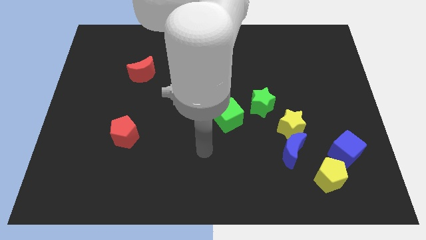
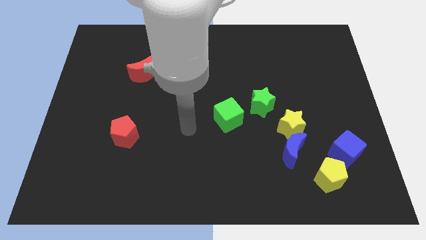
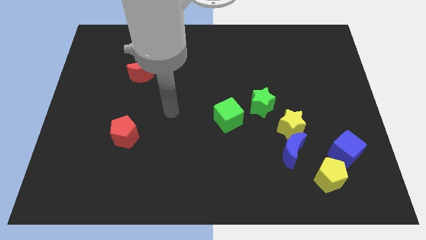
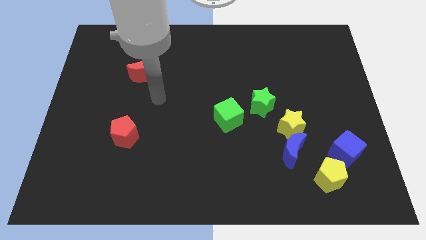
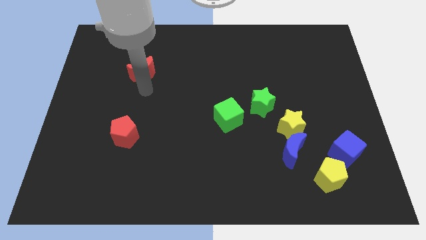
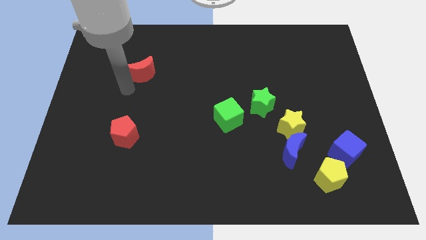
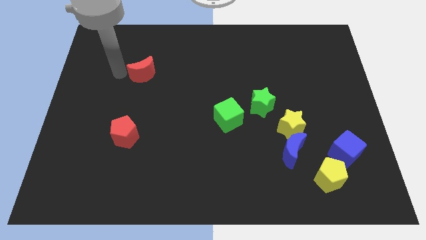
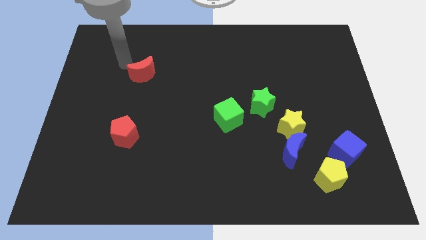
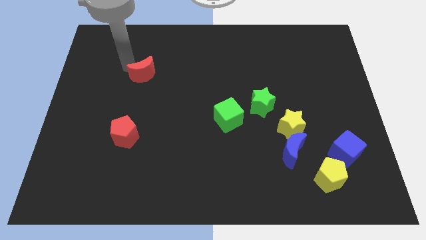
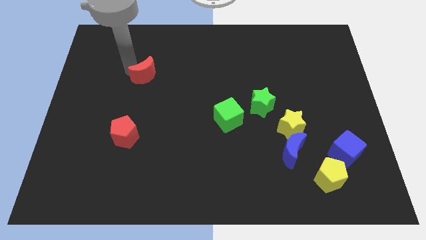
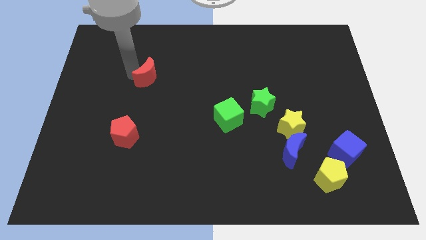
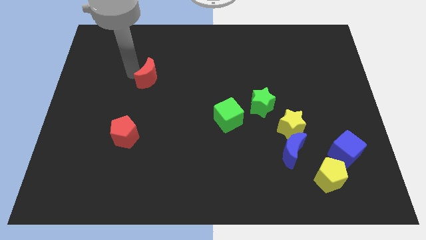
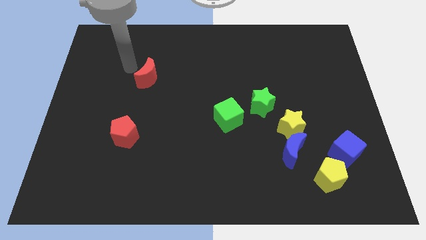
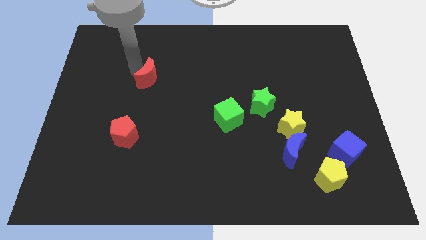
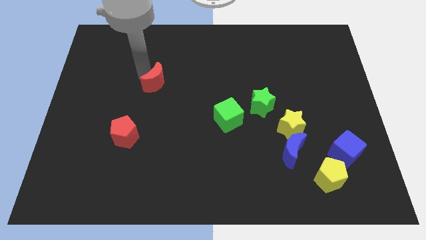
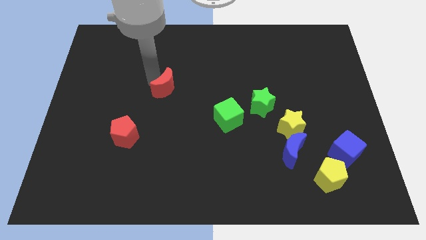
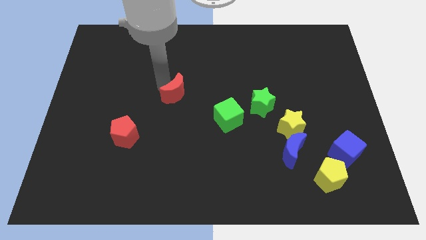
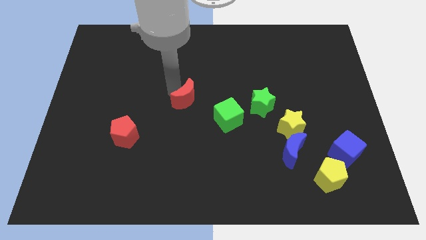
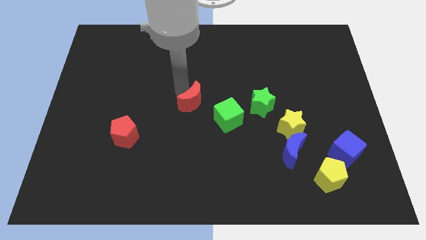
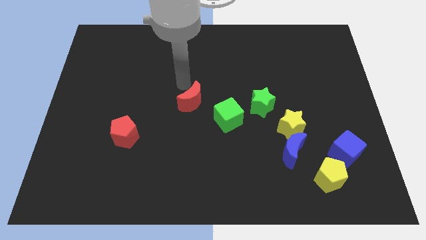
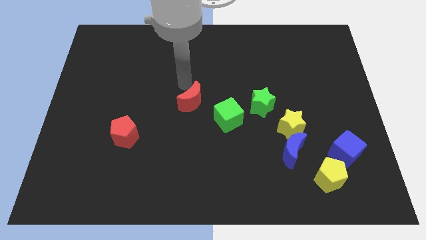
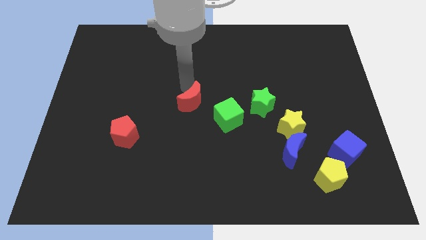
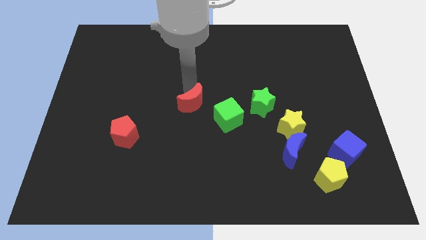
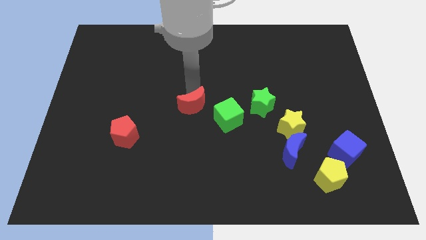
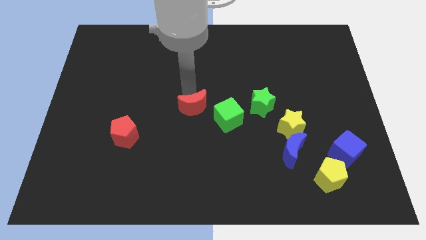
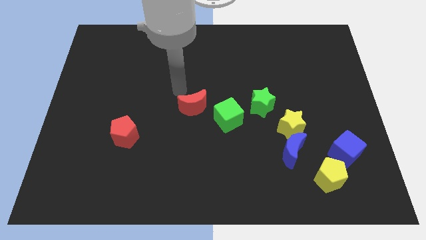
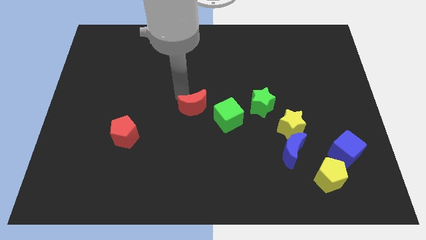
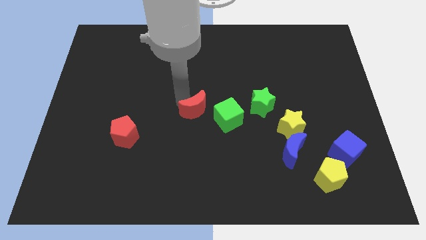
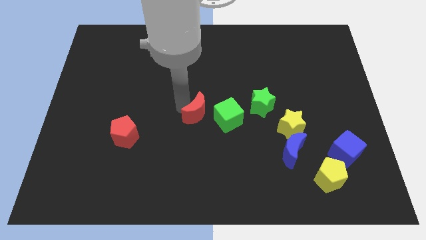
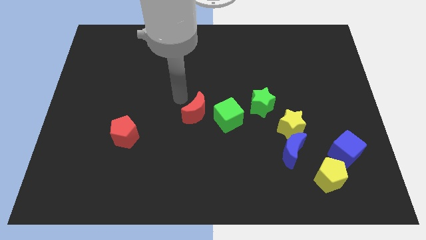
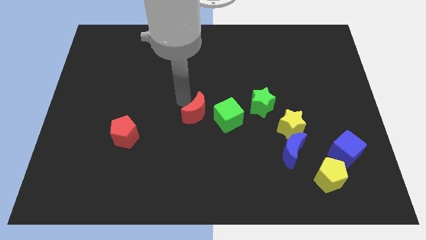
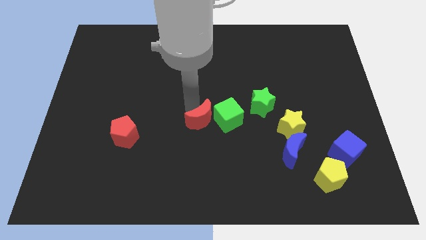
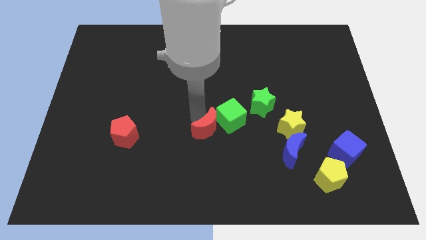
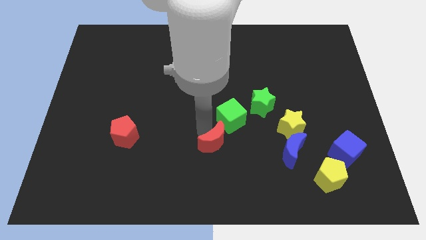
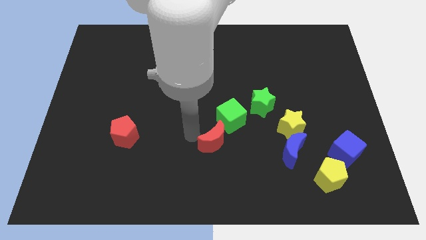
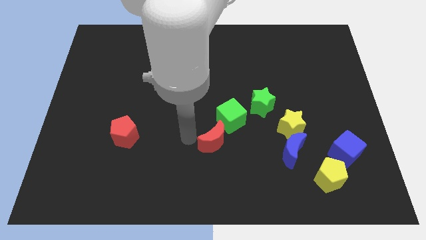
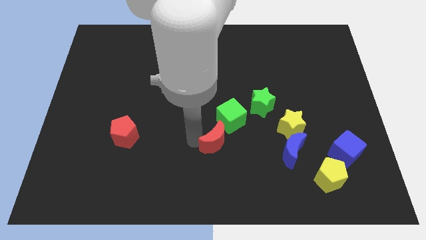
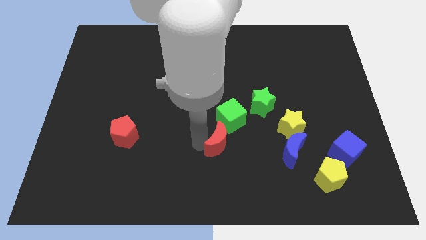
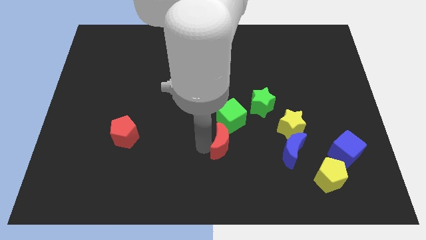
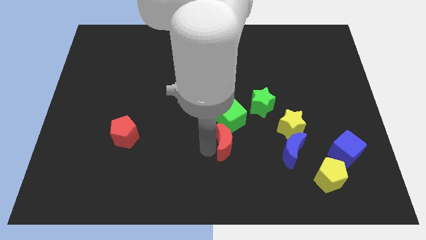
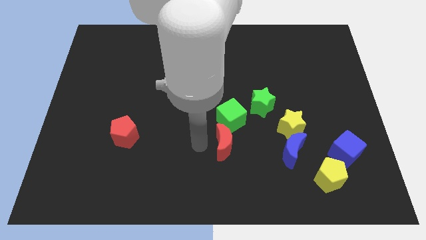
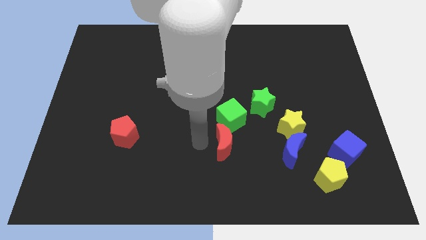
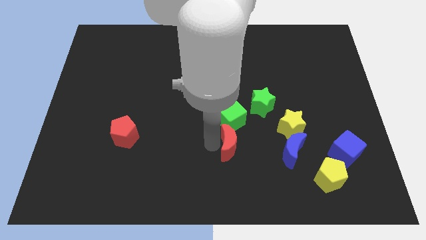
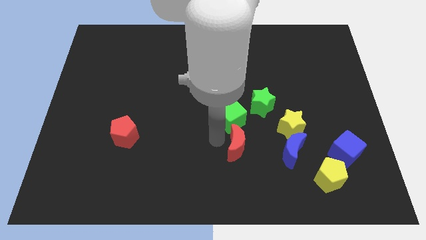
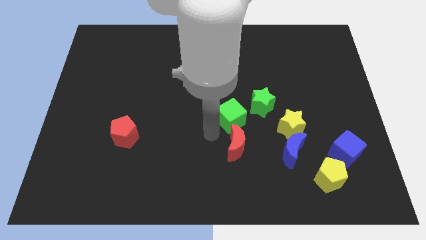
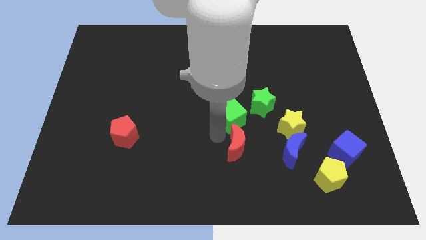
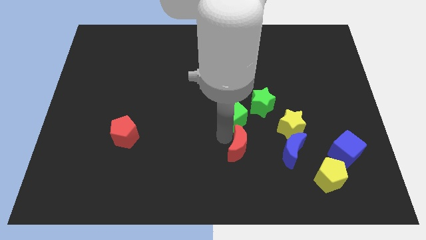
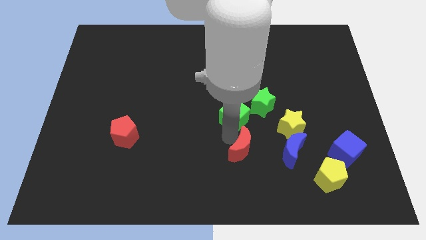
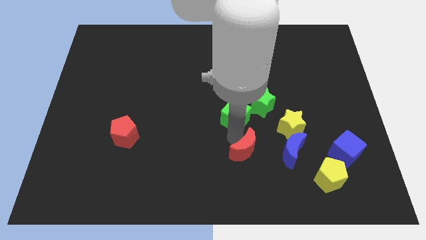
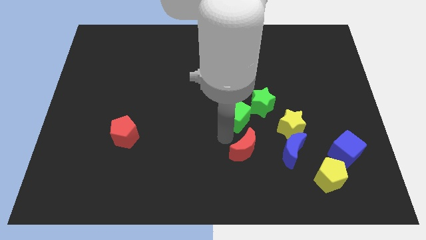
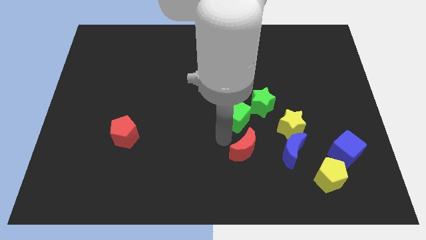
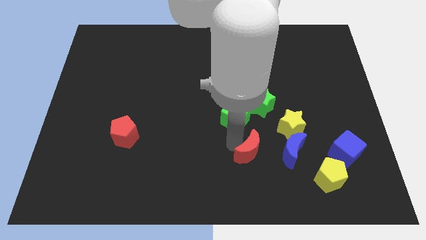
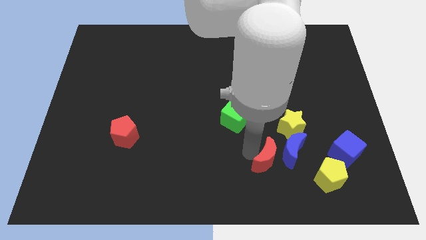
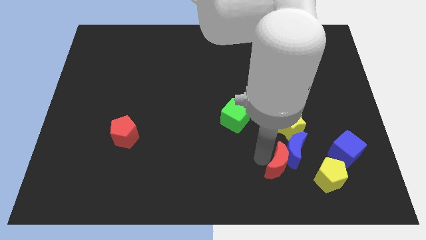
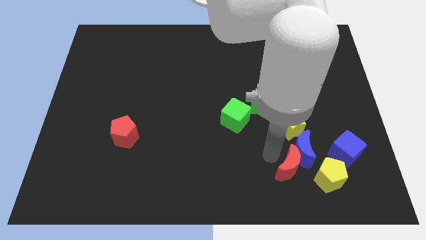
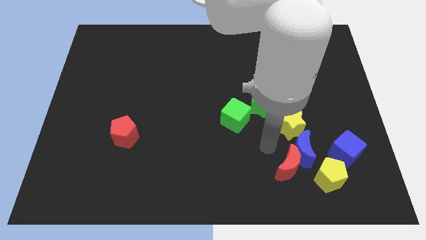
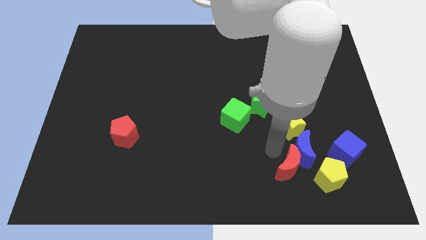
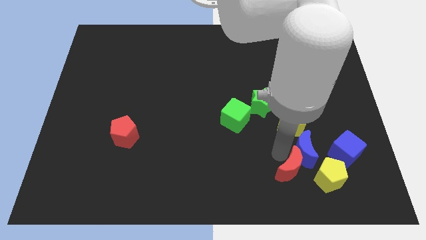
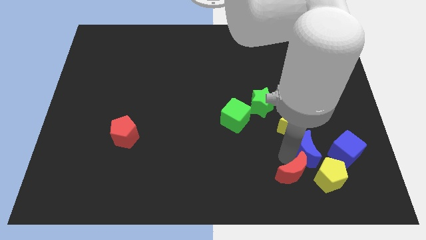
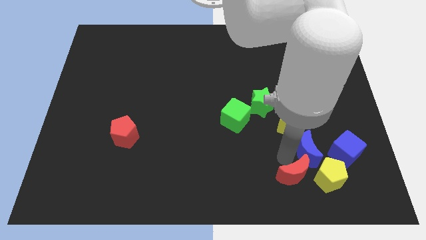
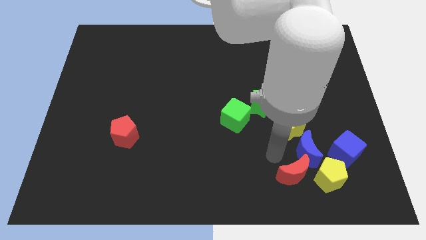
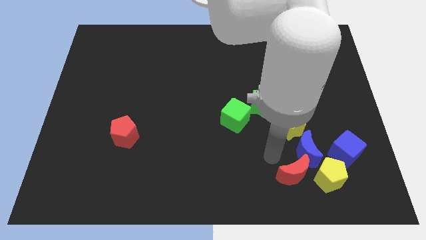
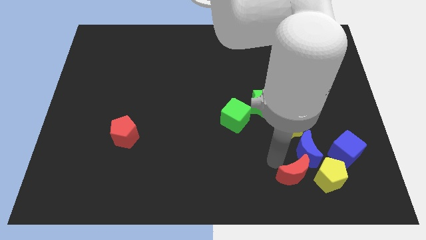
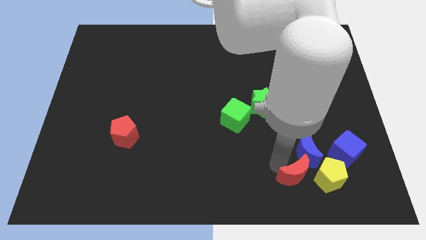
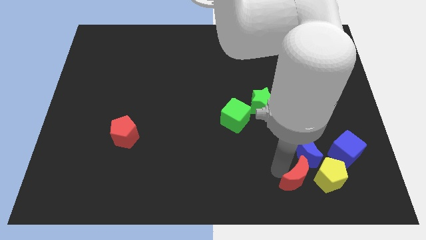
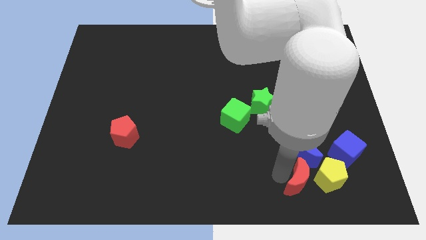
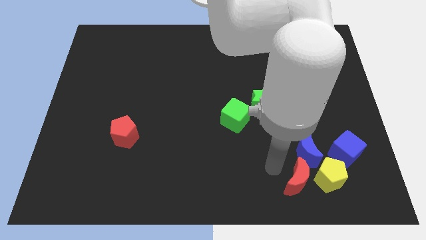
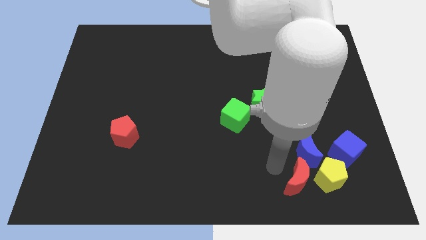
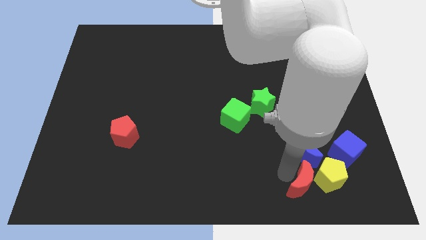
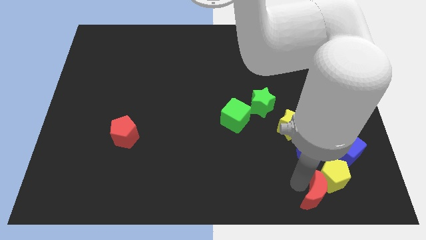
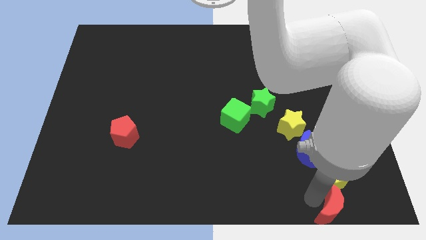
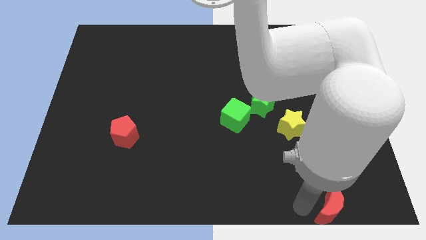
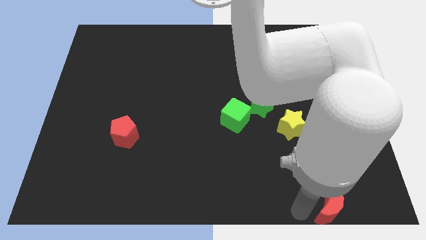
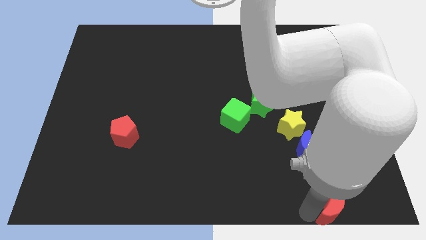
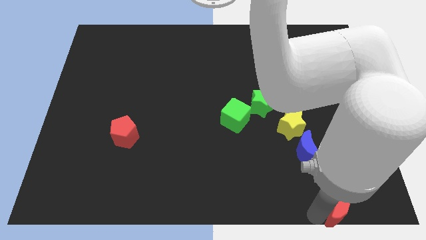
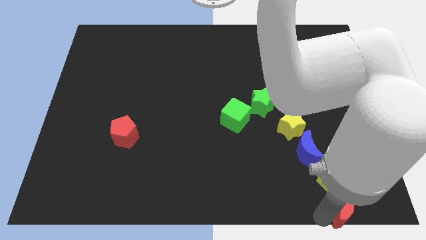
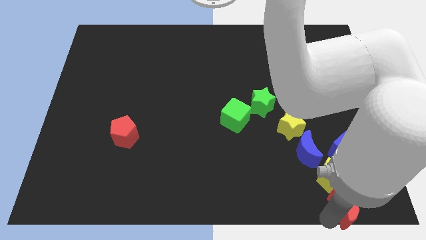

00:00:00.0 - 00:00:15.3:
put the red moon to the bottom right corner
